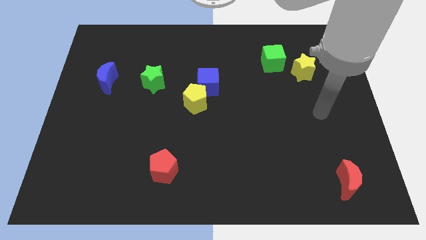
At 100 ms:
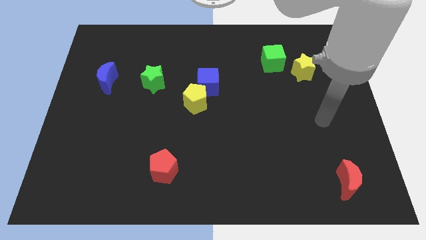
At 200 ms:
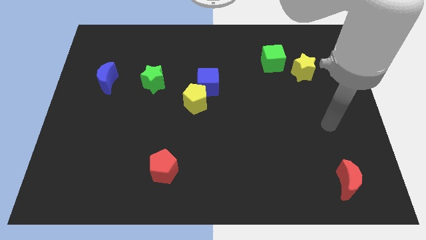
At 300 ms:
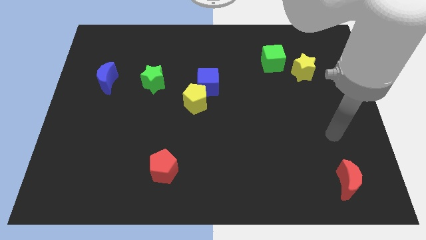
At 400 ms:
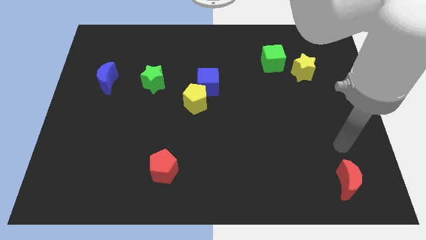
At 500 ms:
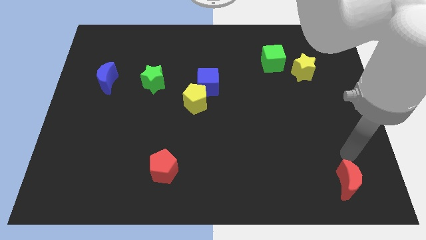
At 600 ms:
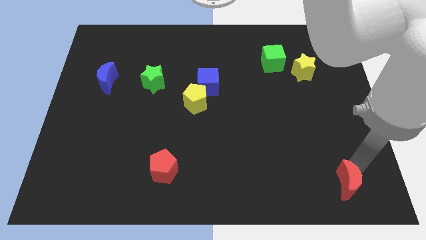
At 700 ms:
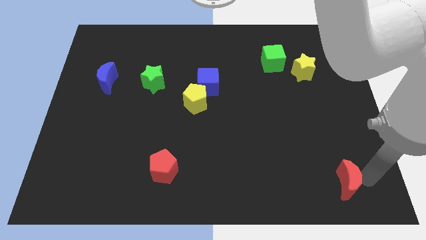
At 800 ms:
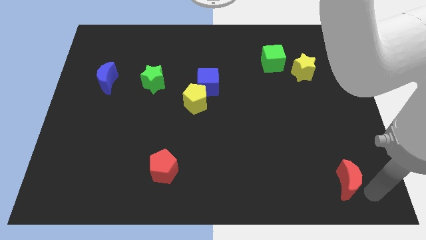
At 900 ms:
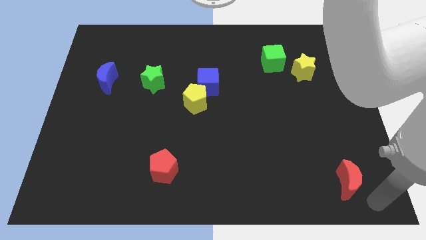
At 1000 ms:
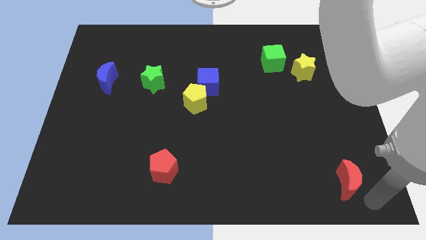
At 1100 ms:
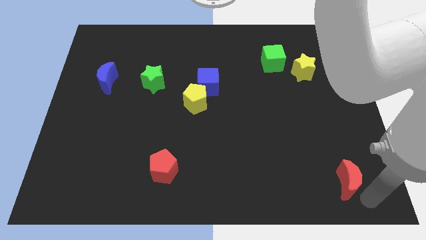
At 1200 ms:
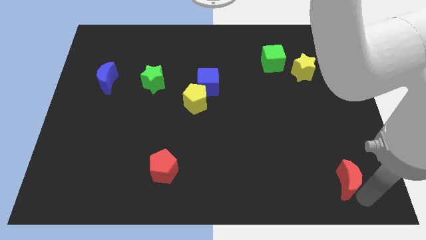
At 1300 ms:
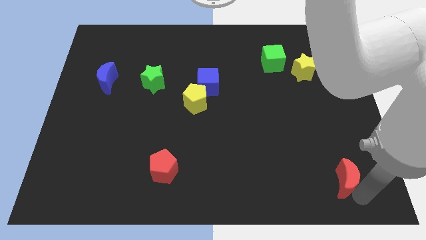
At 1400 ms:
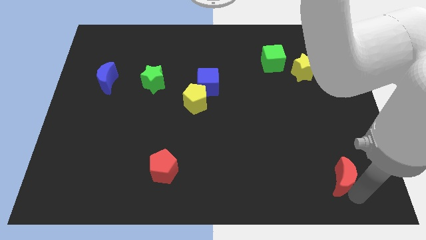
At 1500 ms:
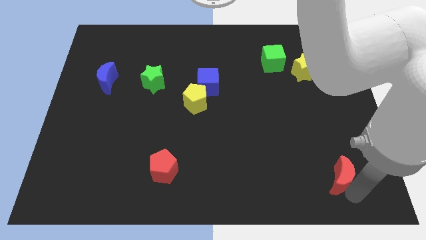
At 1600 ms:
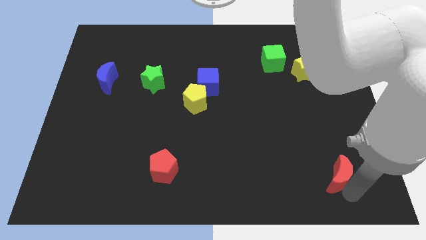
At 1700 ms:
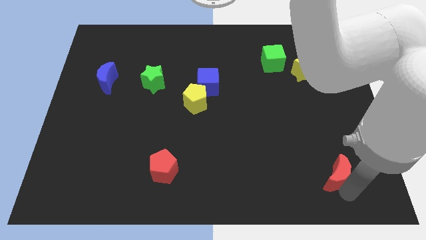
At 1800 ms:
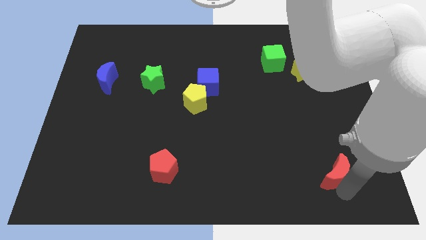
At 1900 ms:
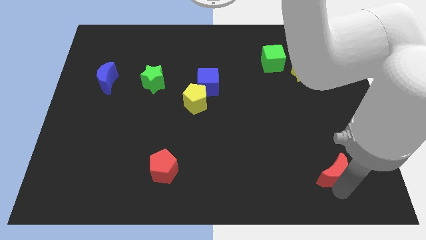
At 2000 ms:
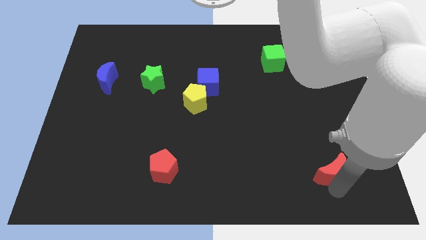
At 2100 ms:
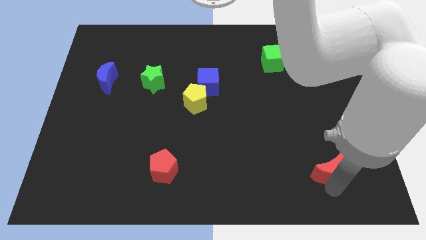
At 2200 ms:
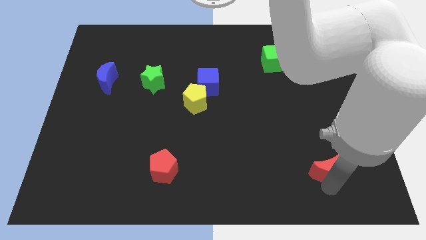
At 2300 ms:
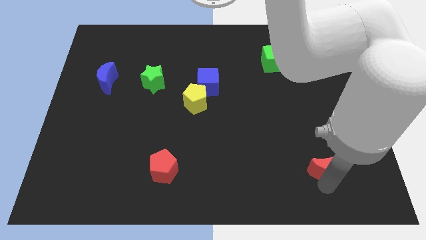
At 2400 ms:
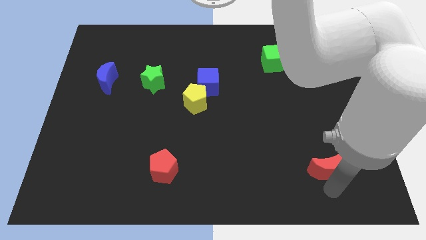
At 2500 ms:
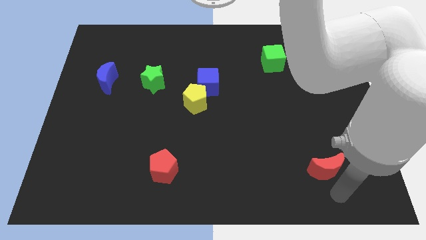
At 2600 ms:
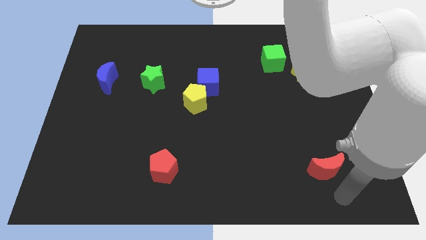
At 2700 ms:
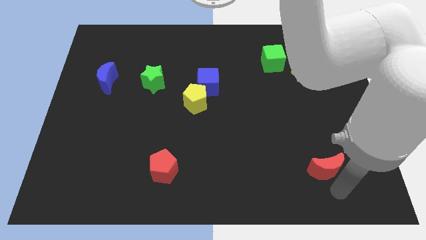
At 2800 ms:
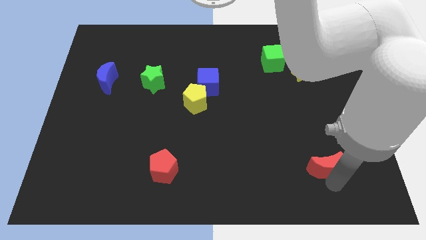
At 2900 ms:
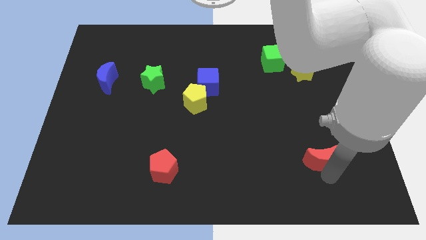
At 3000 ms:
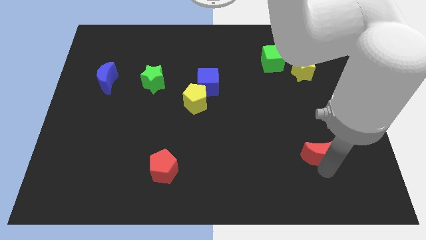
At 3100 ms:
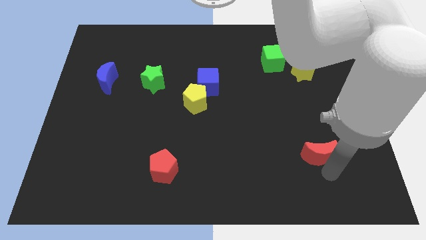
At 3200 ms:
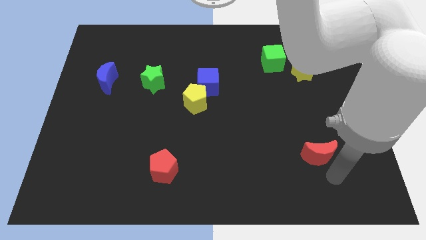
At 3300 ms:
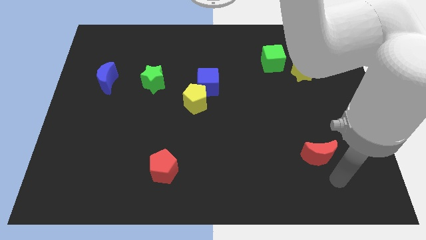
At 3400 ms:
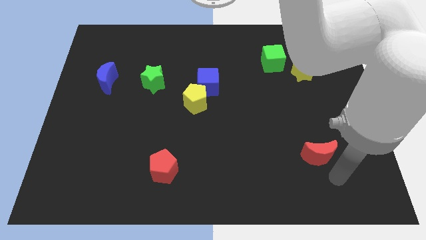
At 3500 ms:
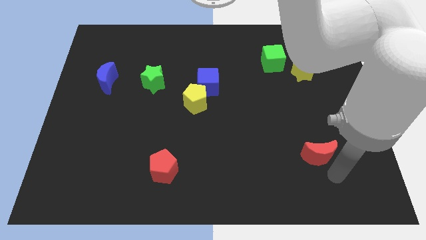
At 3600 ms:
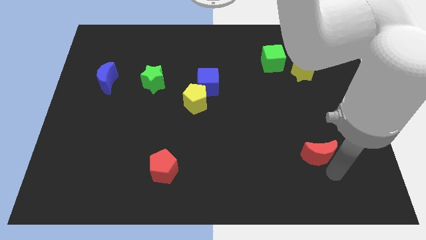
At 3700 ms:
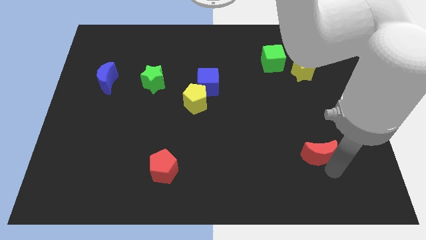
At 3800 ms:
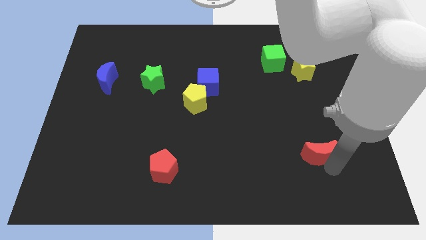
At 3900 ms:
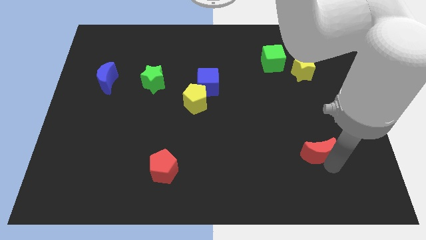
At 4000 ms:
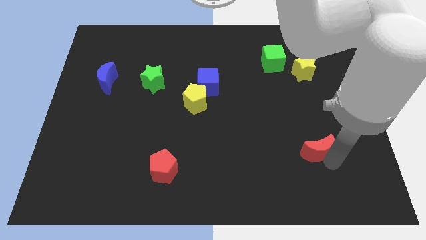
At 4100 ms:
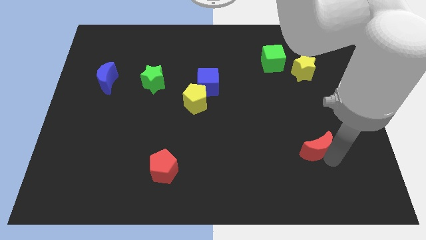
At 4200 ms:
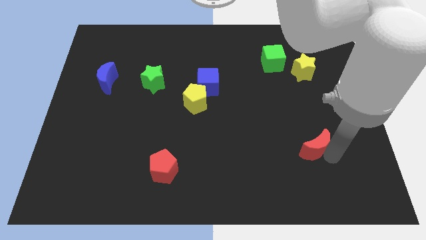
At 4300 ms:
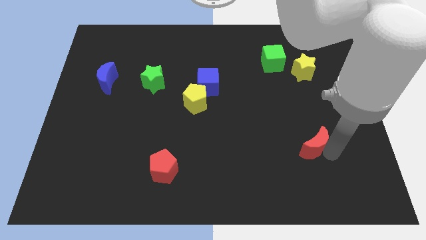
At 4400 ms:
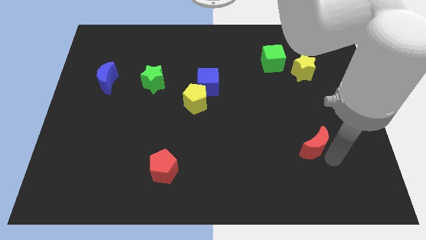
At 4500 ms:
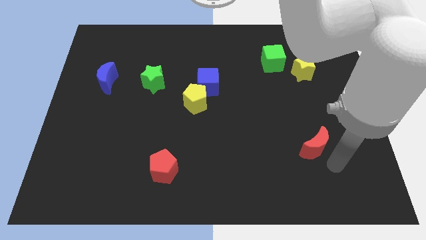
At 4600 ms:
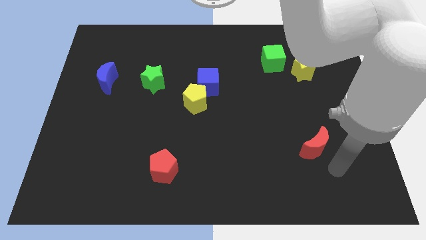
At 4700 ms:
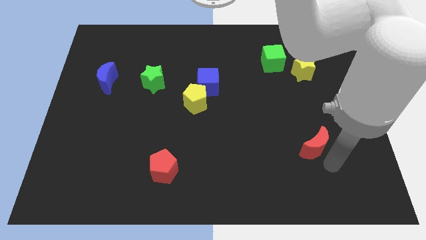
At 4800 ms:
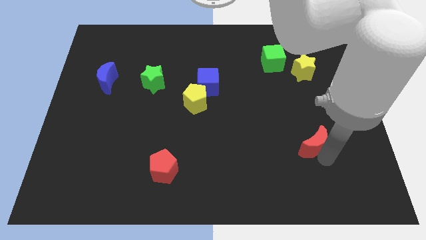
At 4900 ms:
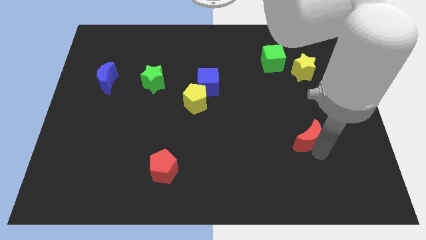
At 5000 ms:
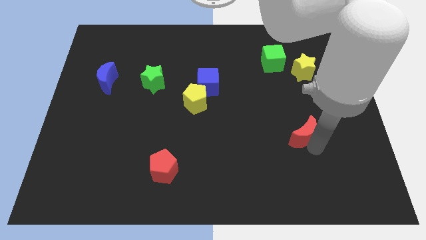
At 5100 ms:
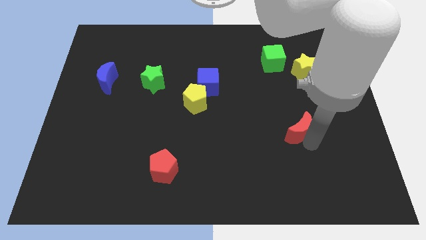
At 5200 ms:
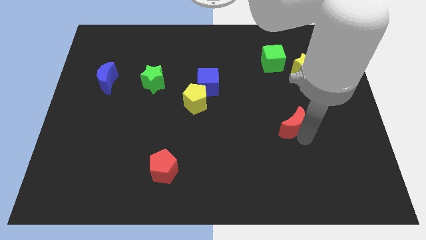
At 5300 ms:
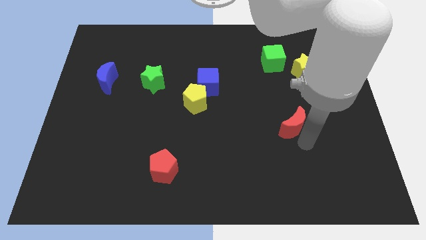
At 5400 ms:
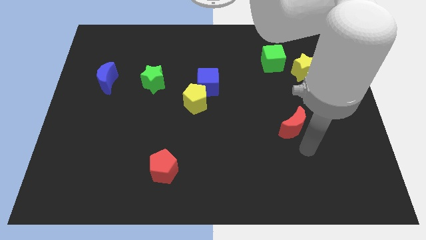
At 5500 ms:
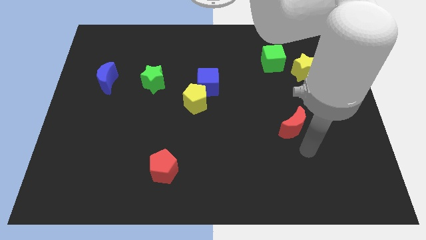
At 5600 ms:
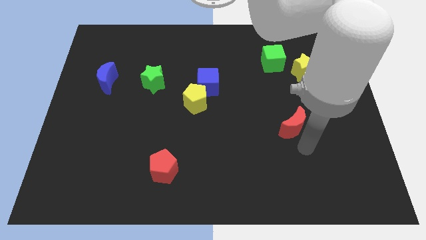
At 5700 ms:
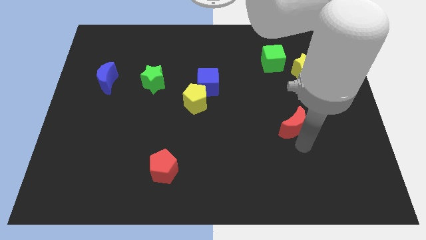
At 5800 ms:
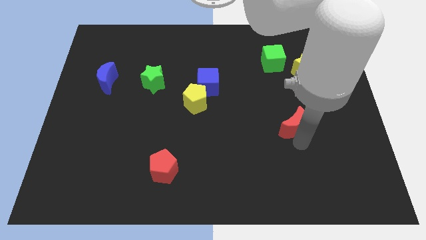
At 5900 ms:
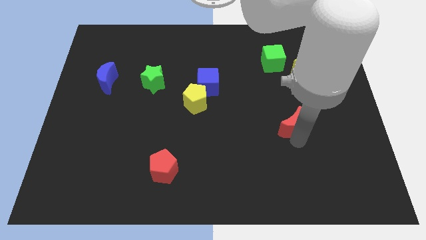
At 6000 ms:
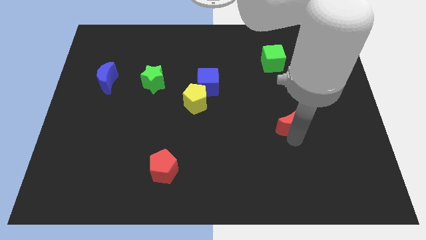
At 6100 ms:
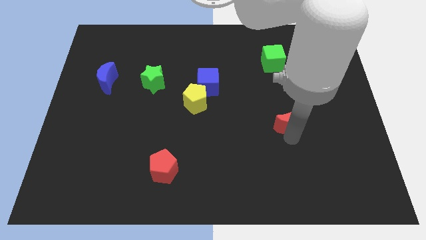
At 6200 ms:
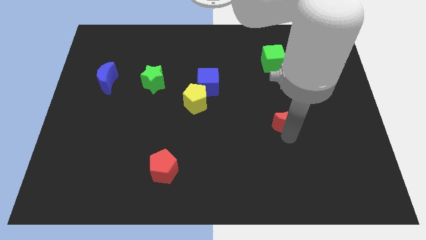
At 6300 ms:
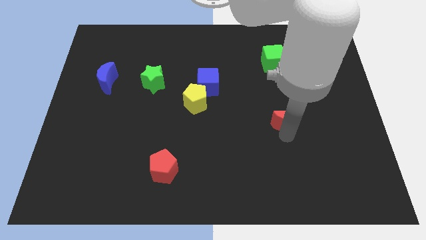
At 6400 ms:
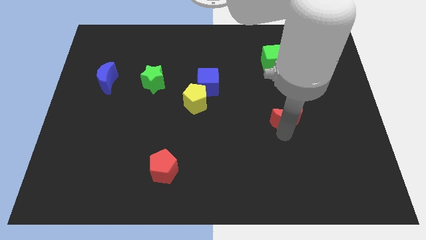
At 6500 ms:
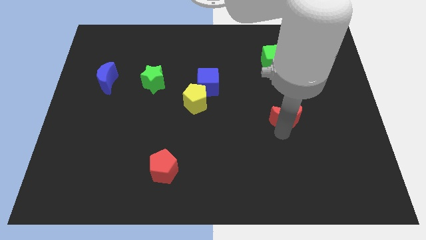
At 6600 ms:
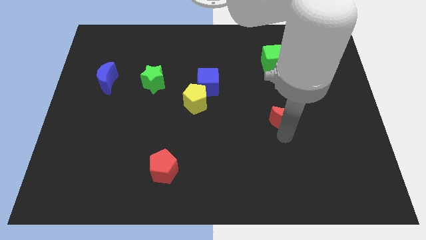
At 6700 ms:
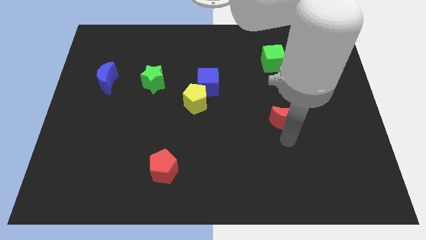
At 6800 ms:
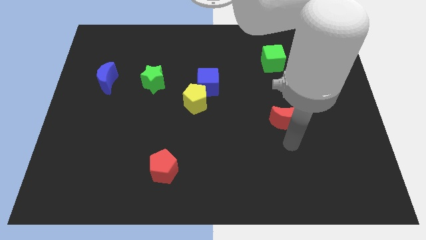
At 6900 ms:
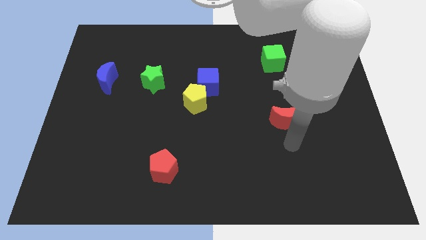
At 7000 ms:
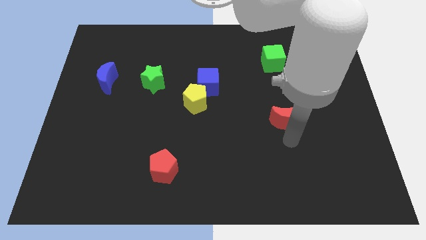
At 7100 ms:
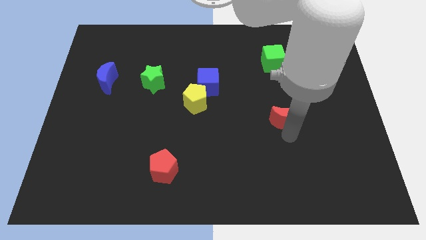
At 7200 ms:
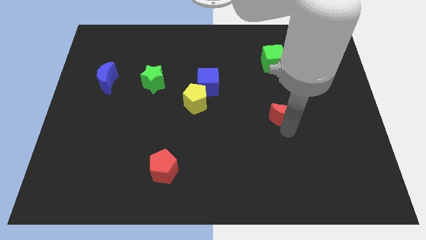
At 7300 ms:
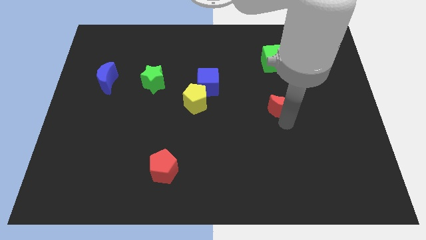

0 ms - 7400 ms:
move the red moon to the bottom of the green cube

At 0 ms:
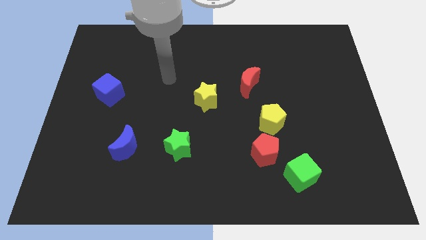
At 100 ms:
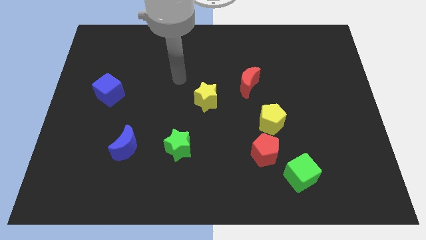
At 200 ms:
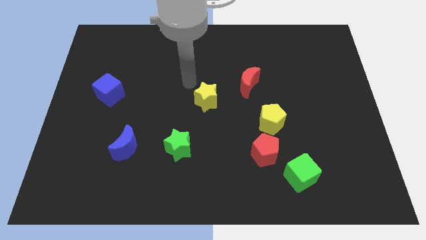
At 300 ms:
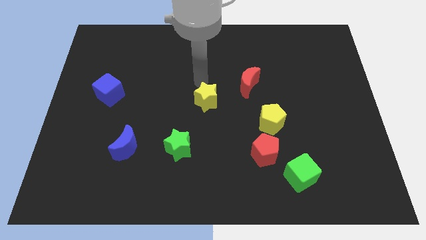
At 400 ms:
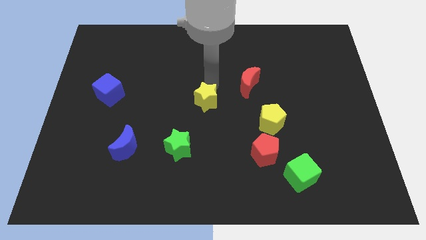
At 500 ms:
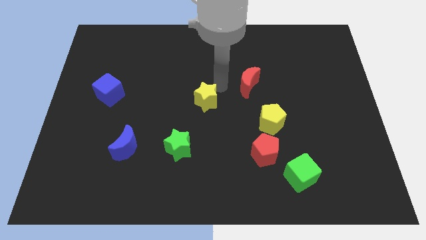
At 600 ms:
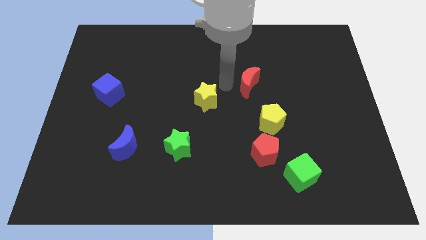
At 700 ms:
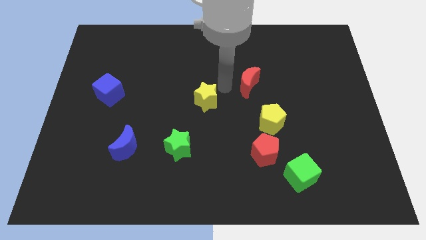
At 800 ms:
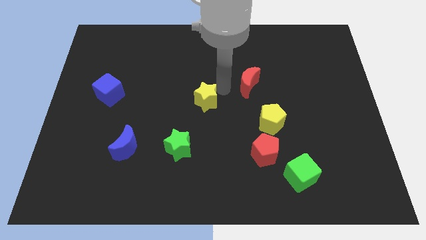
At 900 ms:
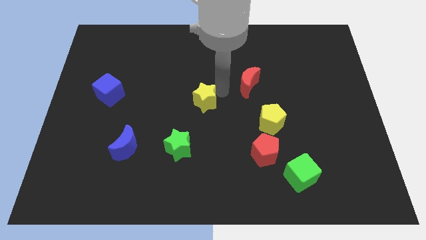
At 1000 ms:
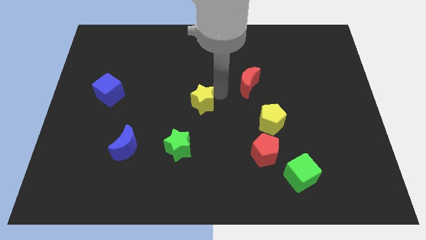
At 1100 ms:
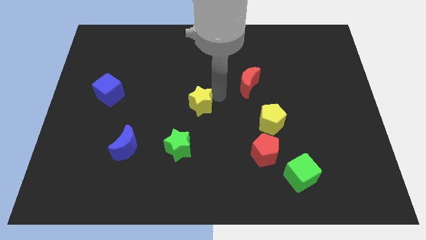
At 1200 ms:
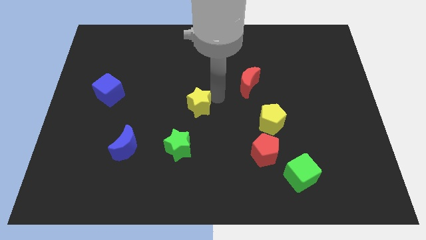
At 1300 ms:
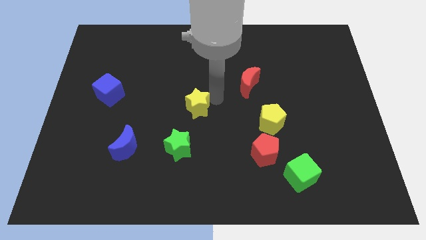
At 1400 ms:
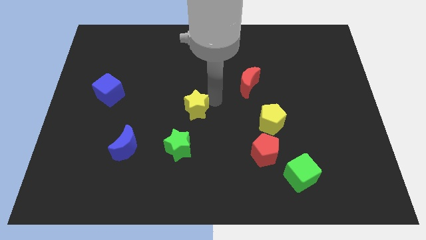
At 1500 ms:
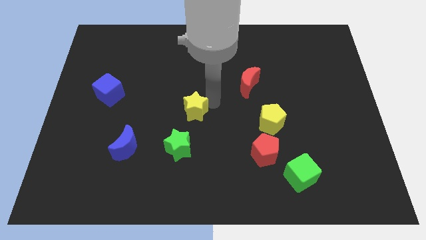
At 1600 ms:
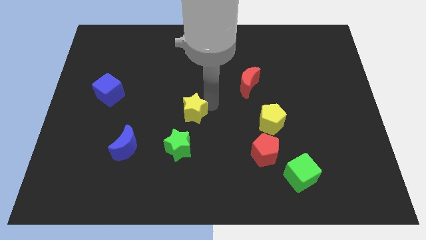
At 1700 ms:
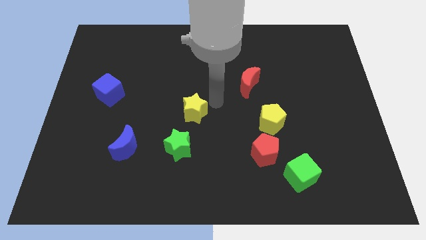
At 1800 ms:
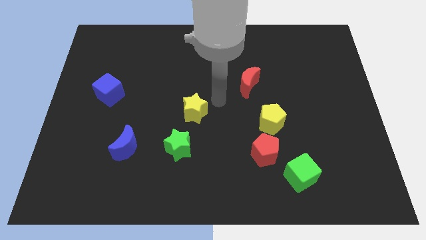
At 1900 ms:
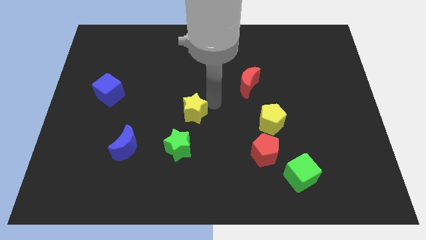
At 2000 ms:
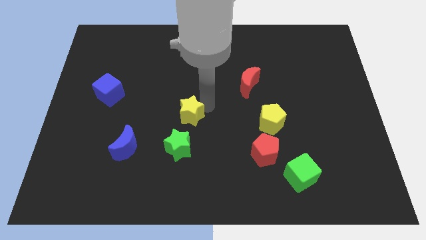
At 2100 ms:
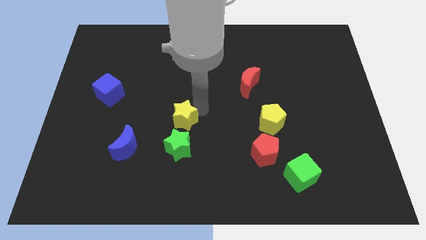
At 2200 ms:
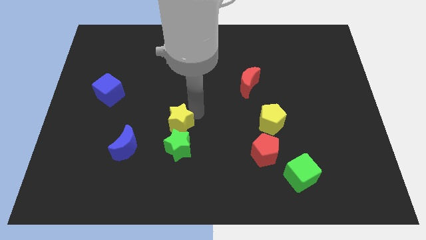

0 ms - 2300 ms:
slide the yellow star to the top left of the green star
